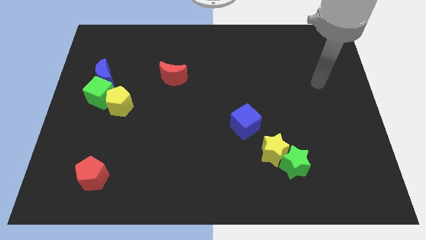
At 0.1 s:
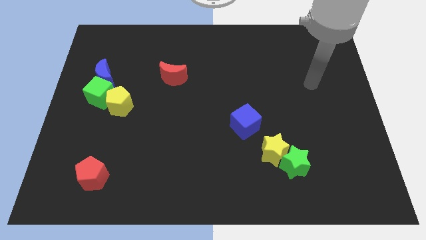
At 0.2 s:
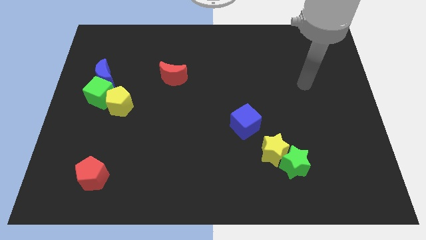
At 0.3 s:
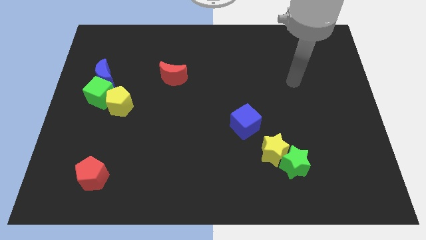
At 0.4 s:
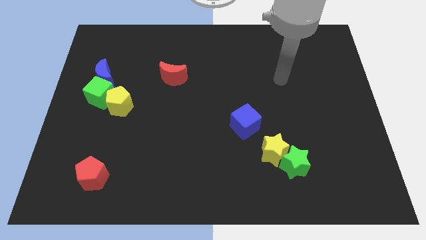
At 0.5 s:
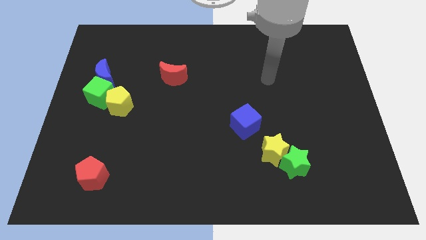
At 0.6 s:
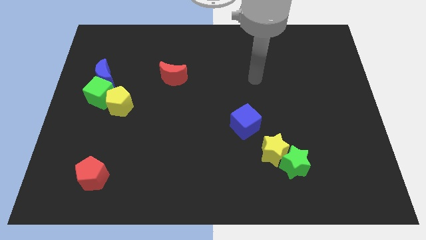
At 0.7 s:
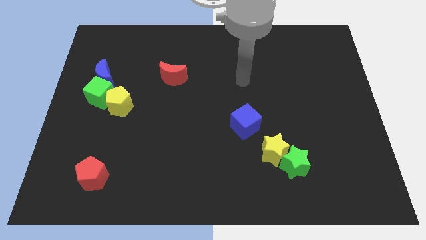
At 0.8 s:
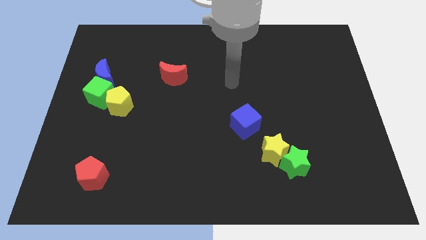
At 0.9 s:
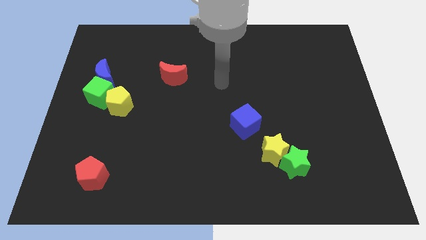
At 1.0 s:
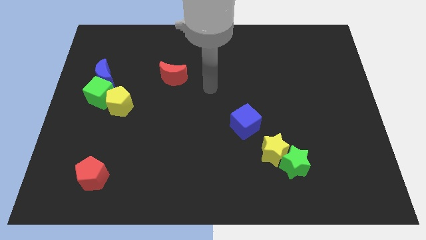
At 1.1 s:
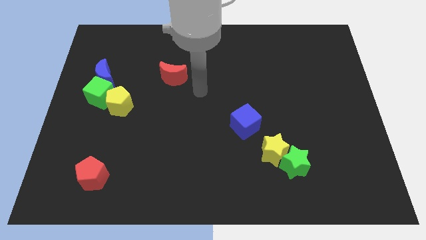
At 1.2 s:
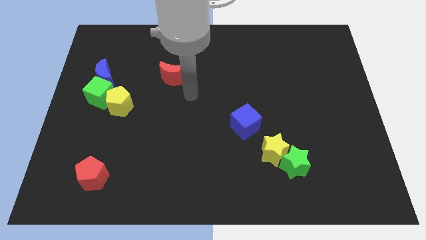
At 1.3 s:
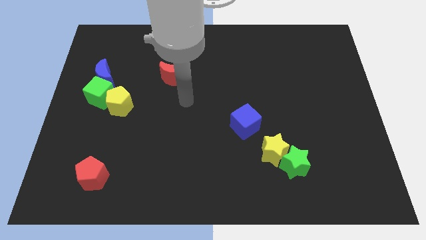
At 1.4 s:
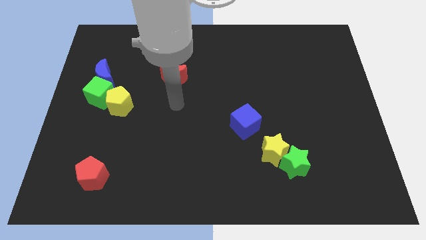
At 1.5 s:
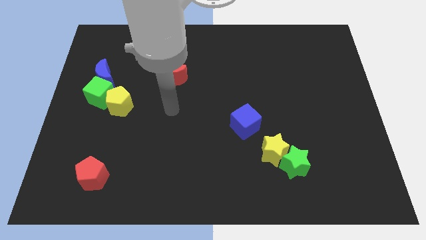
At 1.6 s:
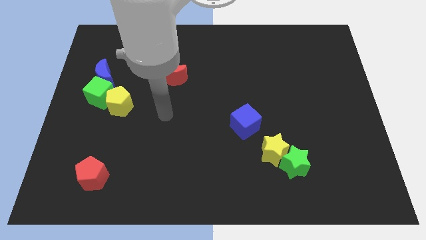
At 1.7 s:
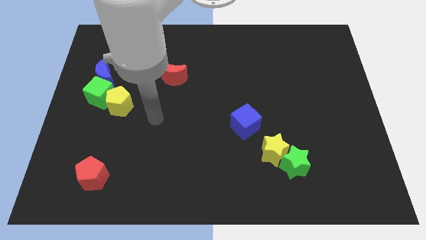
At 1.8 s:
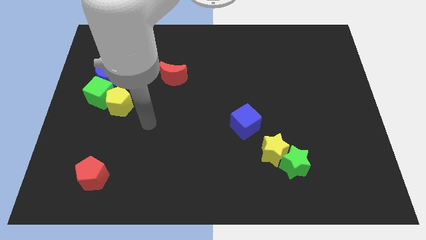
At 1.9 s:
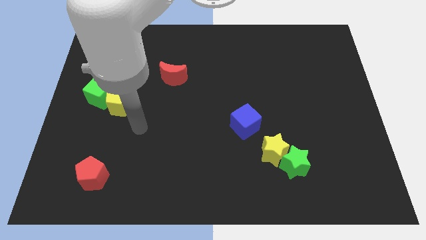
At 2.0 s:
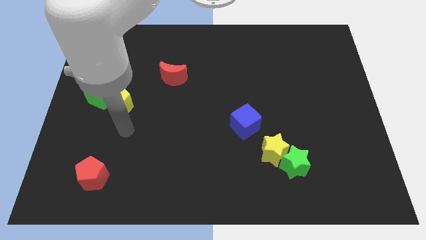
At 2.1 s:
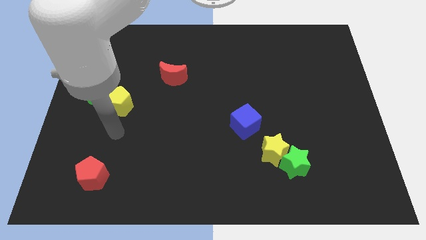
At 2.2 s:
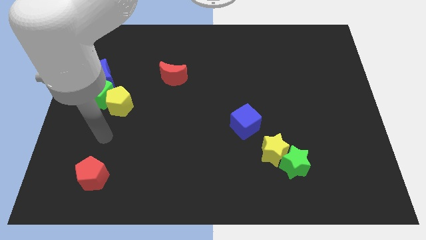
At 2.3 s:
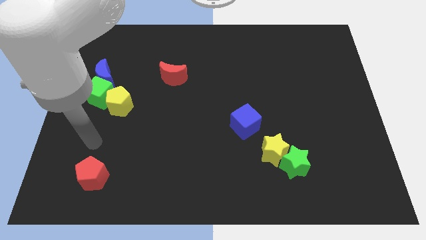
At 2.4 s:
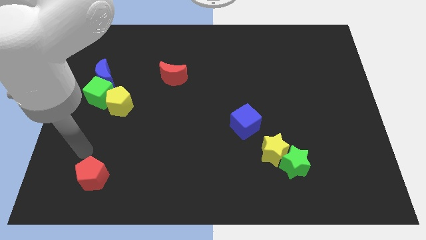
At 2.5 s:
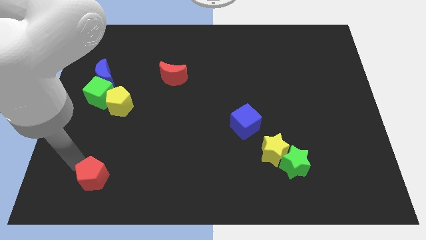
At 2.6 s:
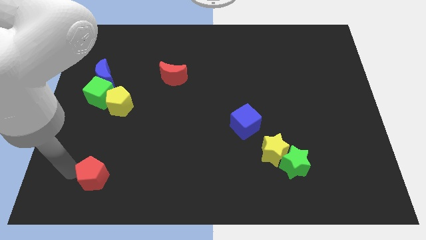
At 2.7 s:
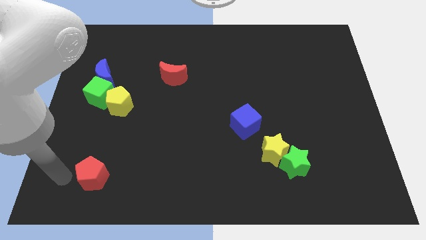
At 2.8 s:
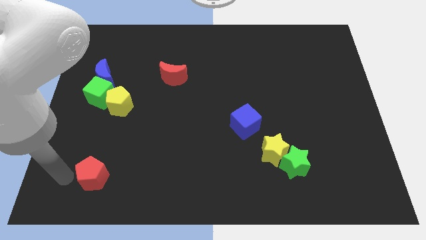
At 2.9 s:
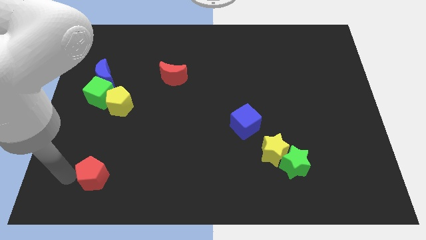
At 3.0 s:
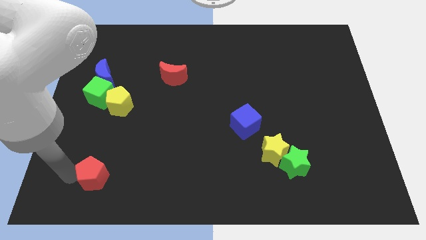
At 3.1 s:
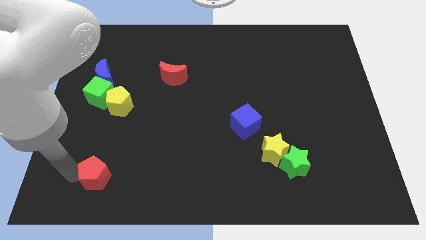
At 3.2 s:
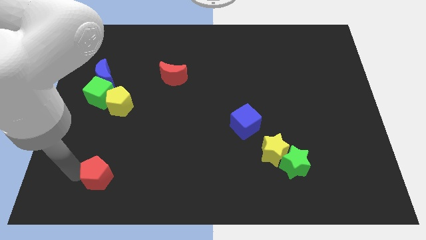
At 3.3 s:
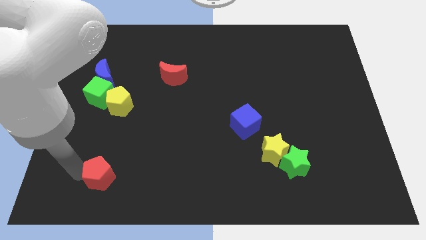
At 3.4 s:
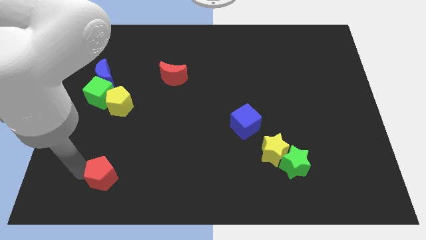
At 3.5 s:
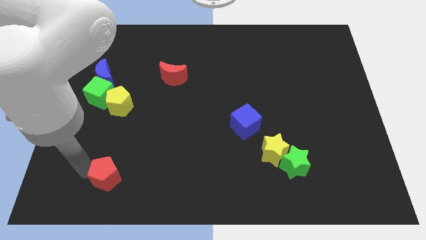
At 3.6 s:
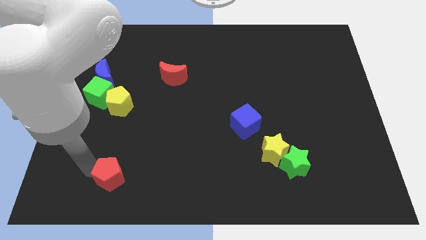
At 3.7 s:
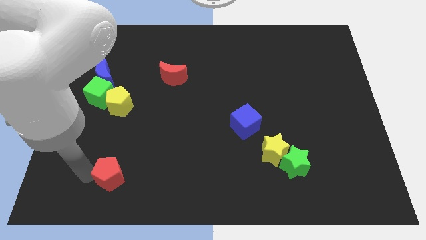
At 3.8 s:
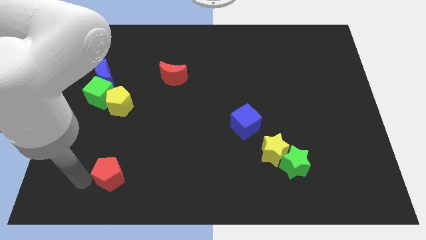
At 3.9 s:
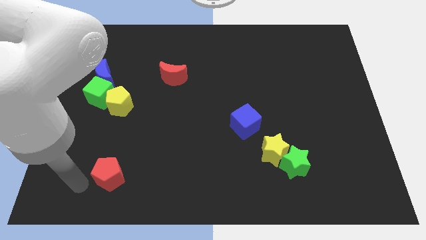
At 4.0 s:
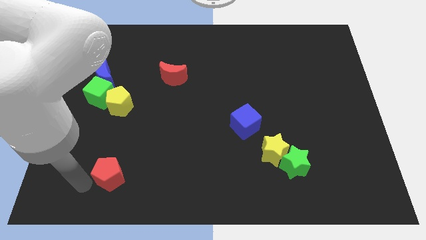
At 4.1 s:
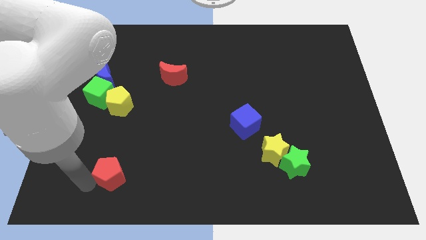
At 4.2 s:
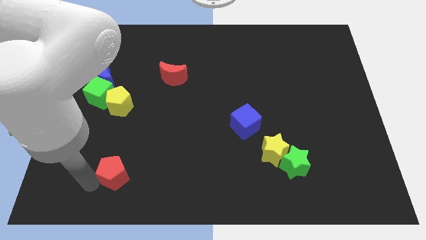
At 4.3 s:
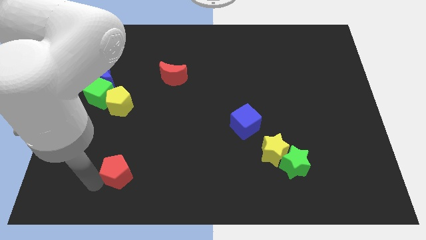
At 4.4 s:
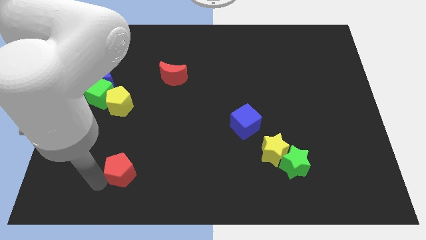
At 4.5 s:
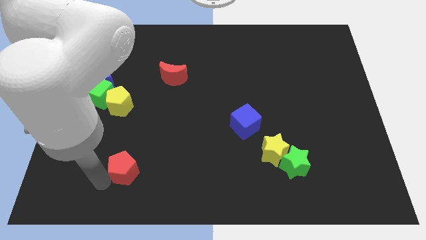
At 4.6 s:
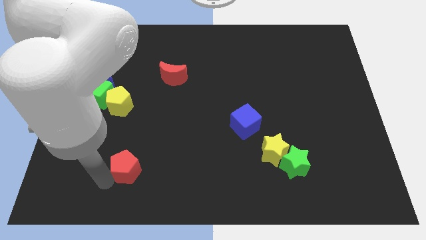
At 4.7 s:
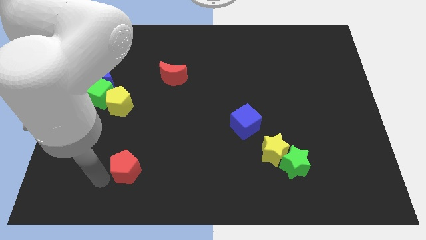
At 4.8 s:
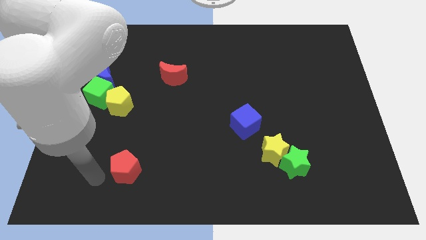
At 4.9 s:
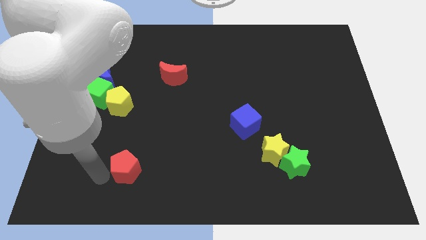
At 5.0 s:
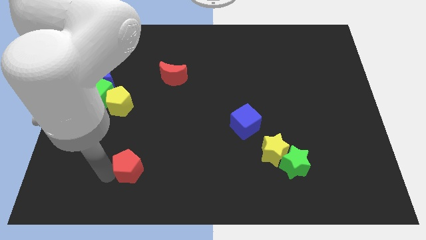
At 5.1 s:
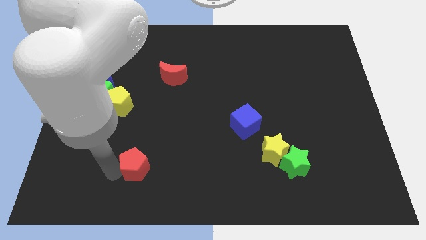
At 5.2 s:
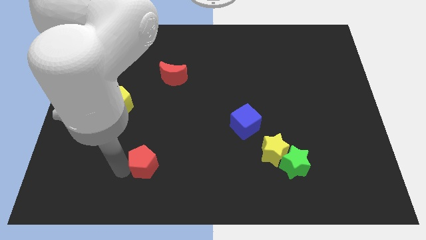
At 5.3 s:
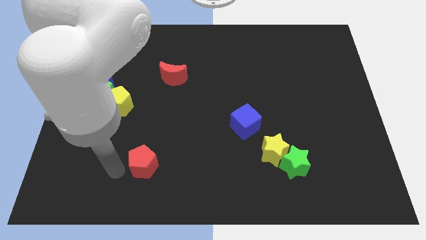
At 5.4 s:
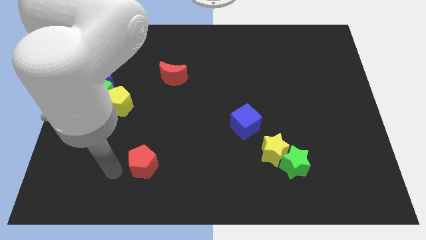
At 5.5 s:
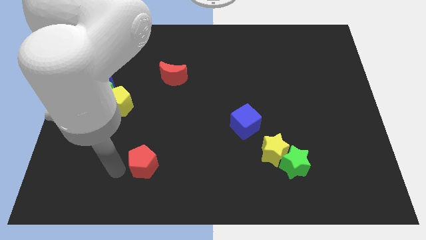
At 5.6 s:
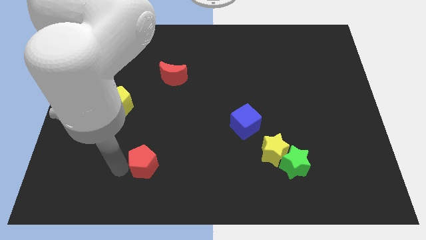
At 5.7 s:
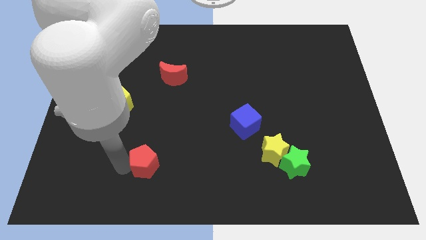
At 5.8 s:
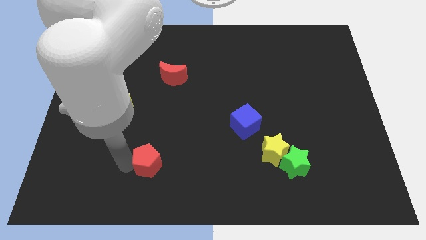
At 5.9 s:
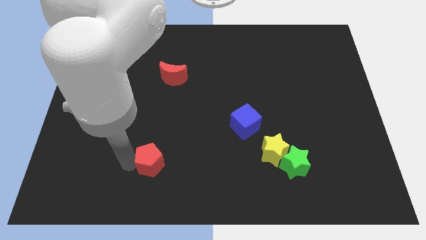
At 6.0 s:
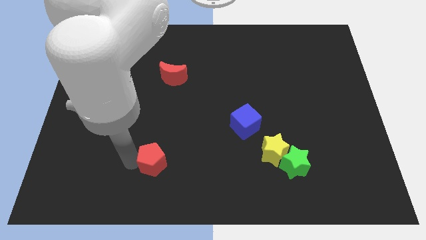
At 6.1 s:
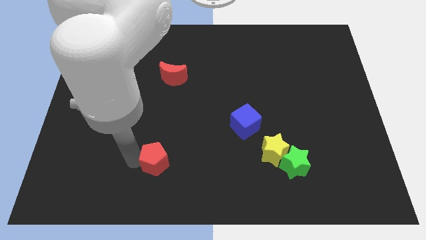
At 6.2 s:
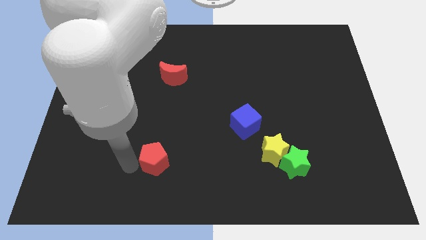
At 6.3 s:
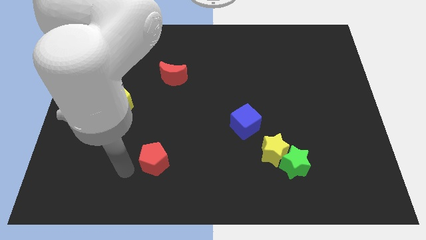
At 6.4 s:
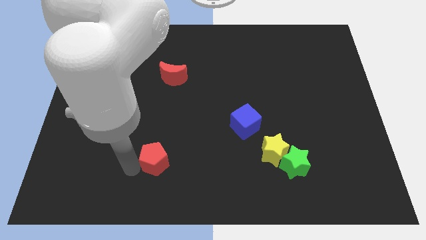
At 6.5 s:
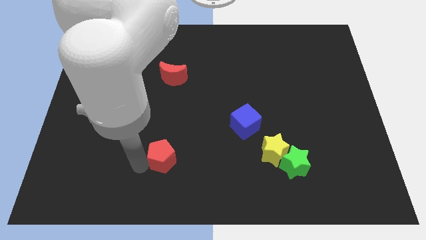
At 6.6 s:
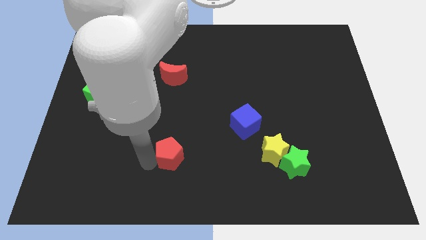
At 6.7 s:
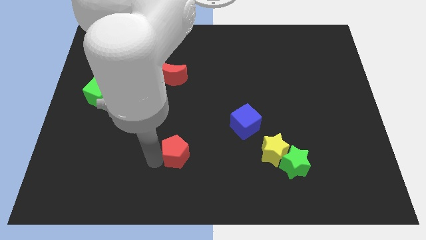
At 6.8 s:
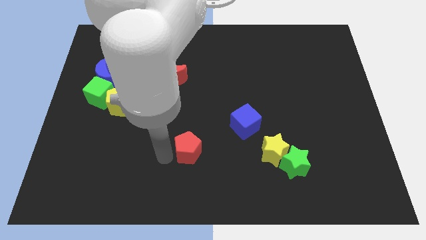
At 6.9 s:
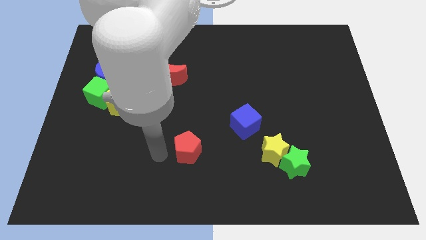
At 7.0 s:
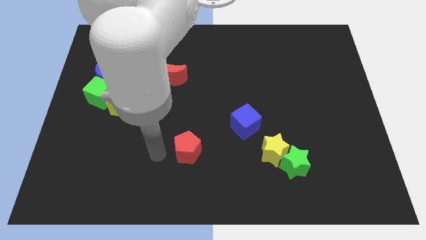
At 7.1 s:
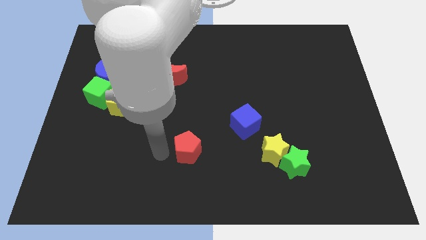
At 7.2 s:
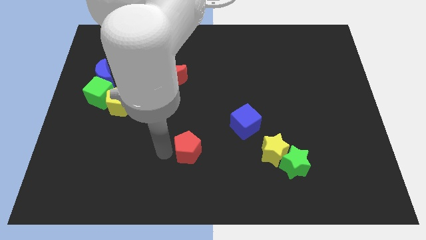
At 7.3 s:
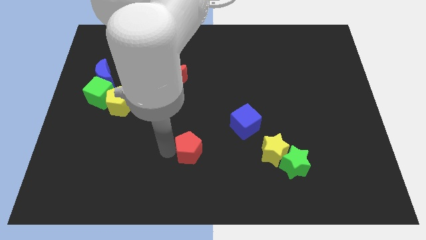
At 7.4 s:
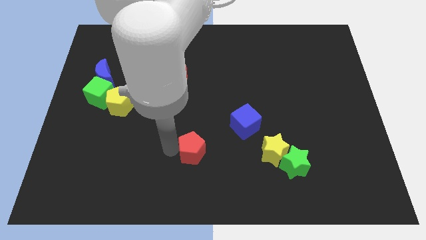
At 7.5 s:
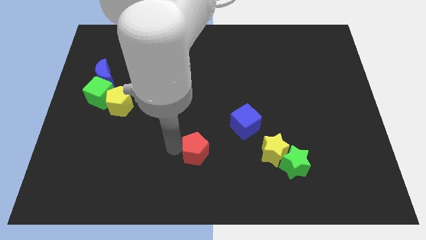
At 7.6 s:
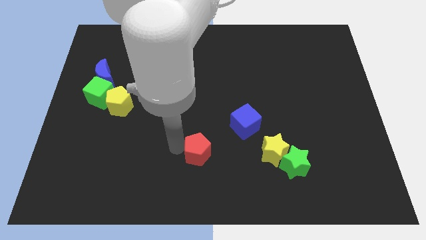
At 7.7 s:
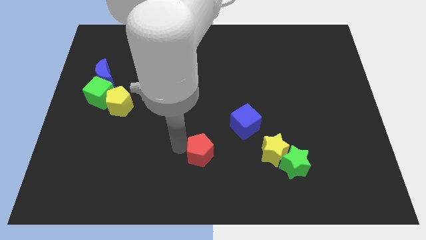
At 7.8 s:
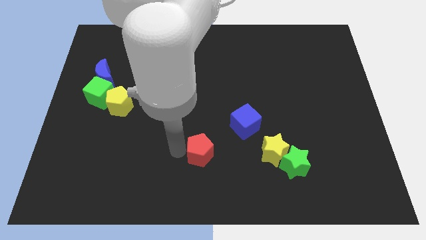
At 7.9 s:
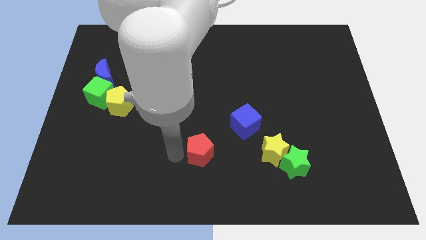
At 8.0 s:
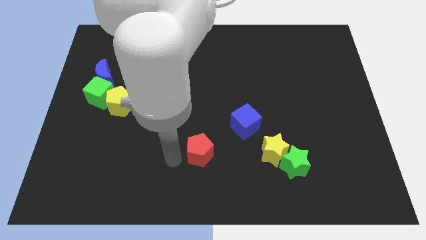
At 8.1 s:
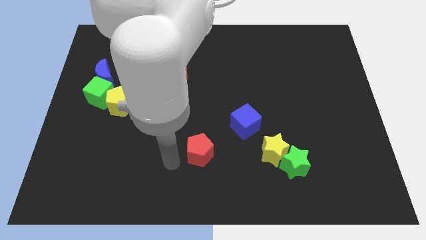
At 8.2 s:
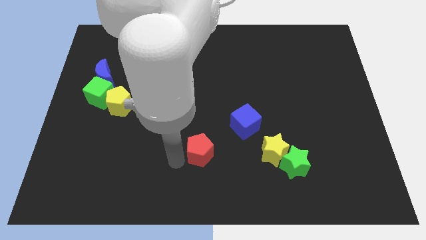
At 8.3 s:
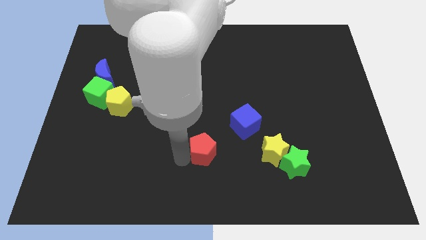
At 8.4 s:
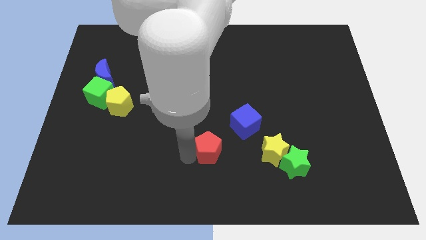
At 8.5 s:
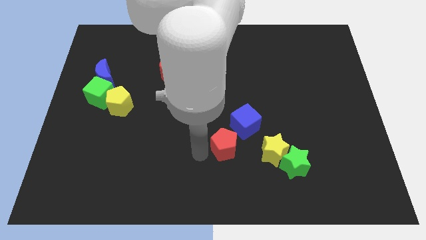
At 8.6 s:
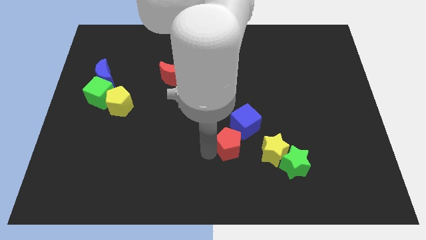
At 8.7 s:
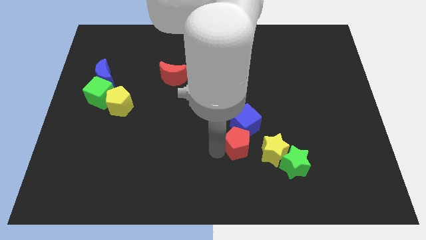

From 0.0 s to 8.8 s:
move the red pentagon close to the blue cube
